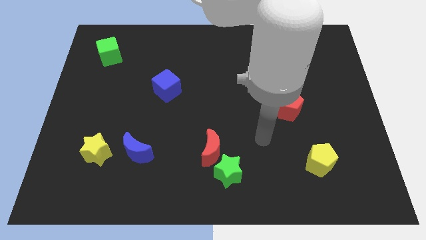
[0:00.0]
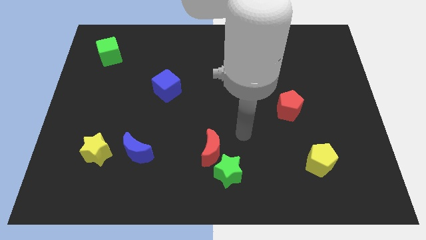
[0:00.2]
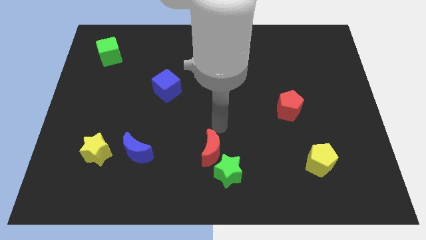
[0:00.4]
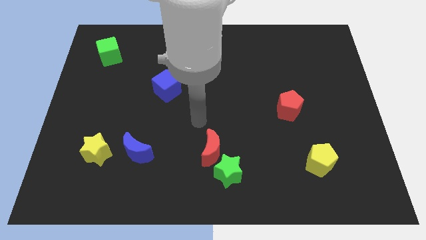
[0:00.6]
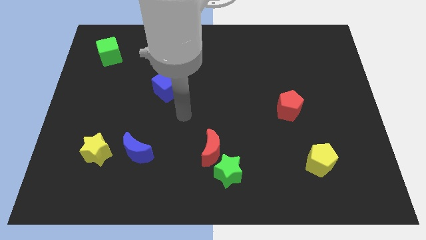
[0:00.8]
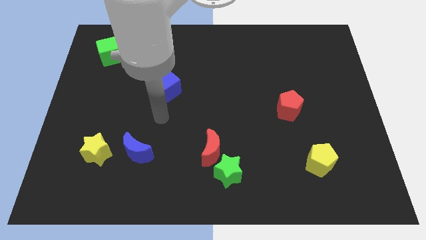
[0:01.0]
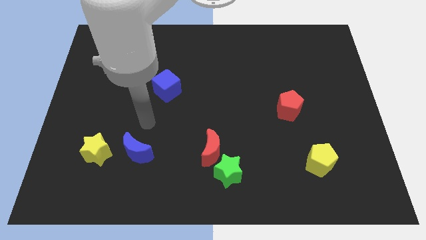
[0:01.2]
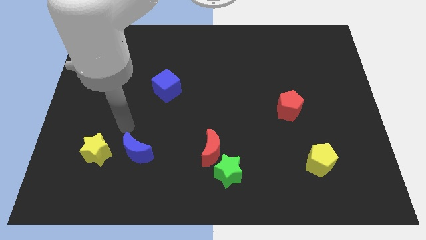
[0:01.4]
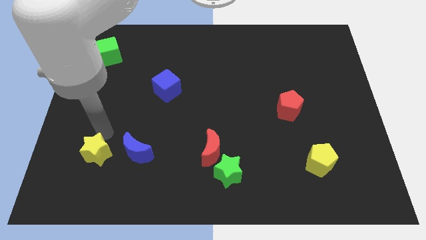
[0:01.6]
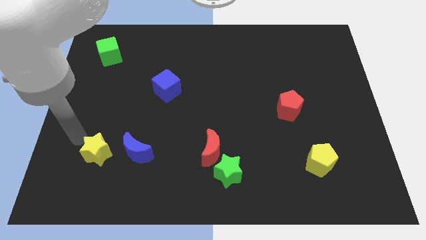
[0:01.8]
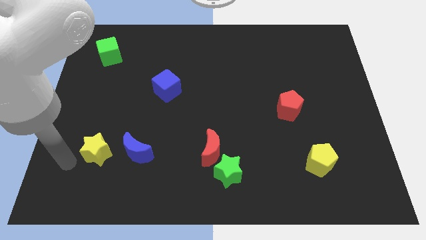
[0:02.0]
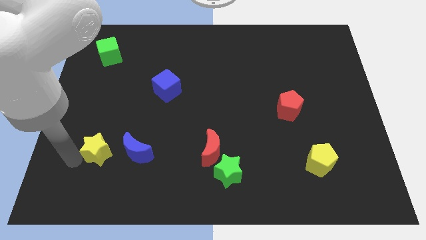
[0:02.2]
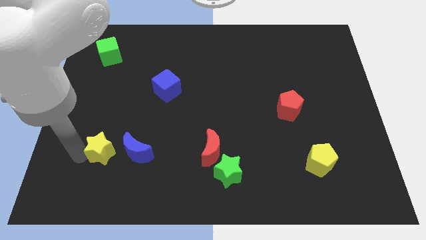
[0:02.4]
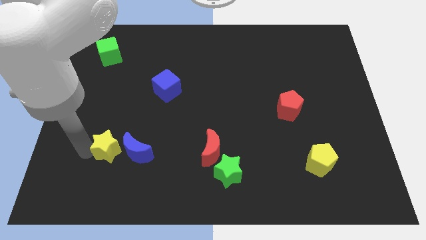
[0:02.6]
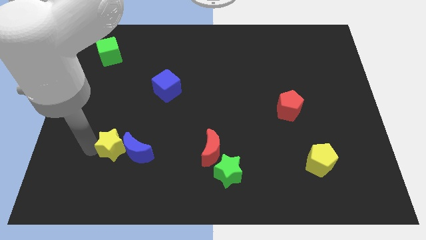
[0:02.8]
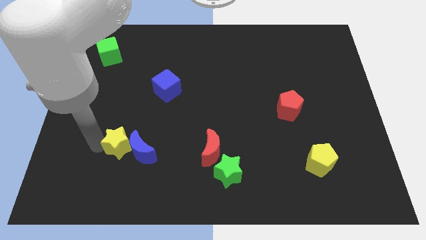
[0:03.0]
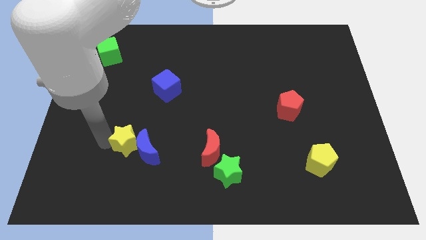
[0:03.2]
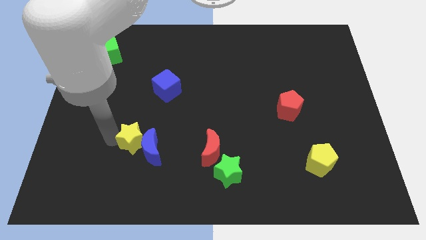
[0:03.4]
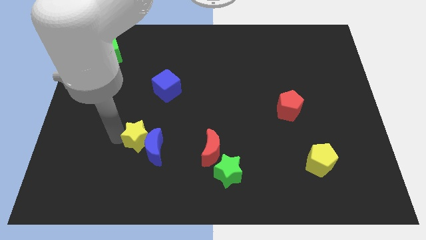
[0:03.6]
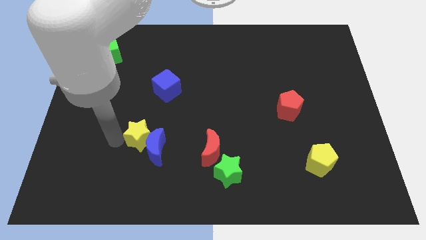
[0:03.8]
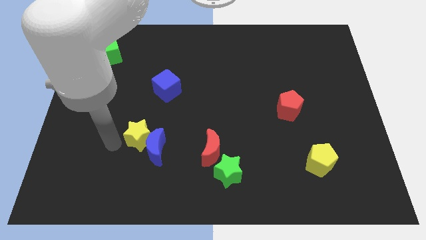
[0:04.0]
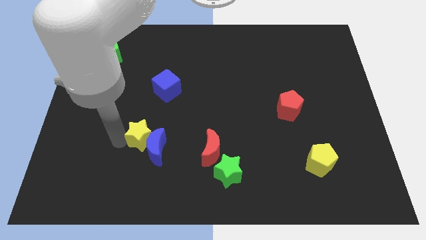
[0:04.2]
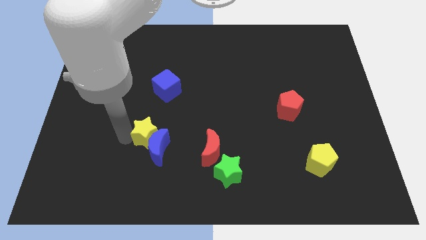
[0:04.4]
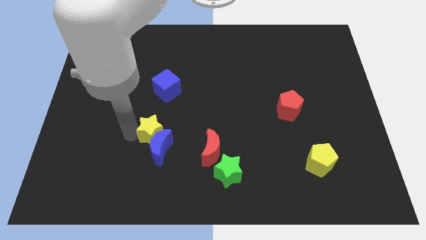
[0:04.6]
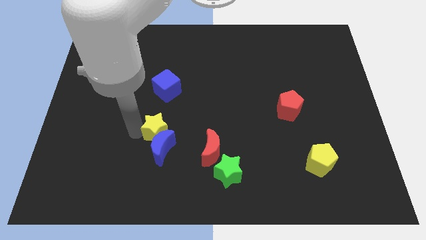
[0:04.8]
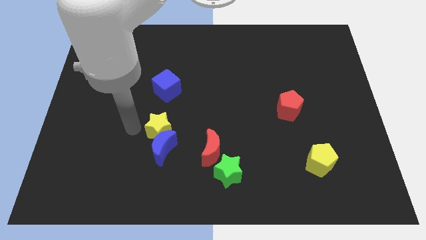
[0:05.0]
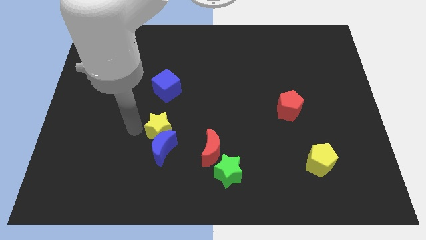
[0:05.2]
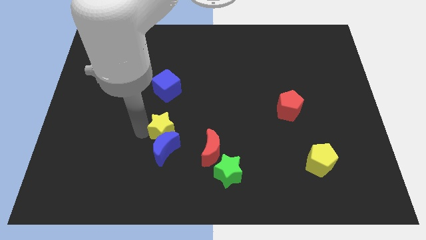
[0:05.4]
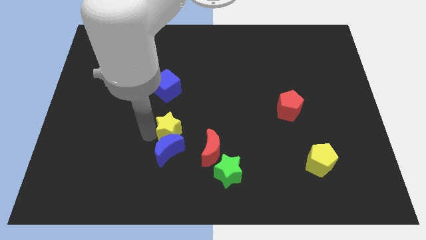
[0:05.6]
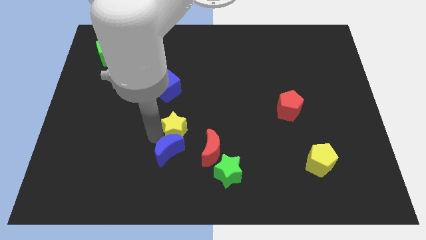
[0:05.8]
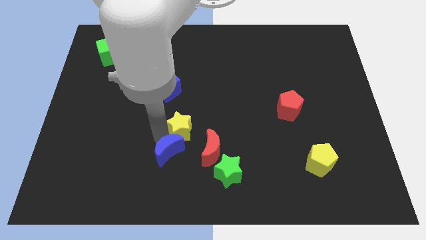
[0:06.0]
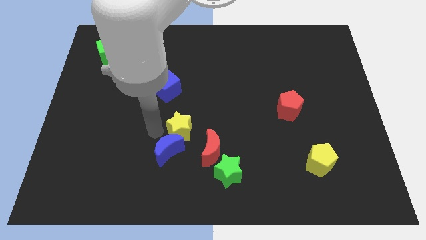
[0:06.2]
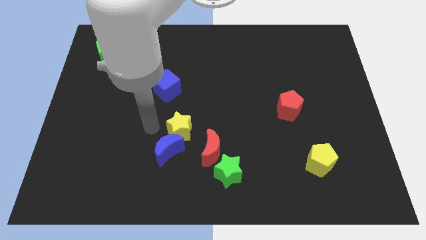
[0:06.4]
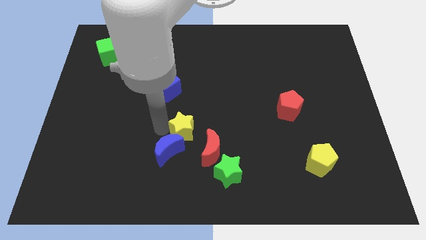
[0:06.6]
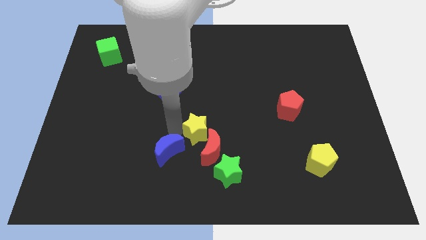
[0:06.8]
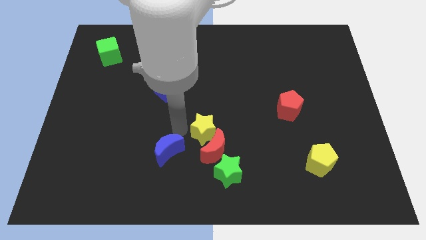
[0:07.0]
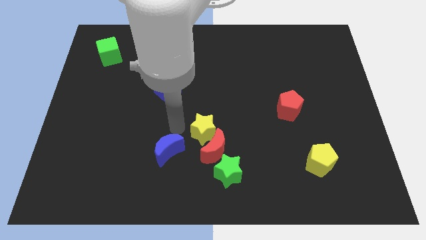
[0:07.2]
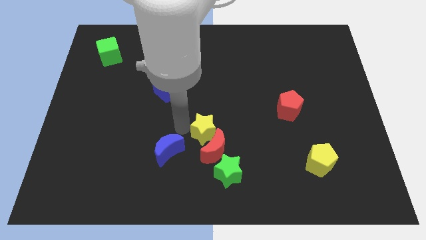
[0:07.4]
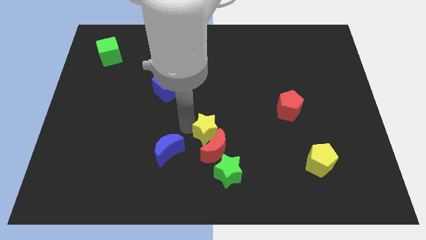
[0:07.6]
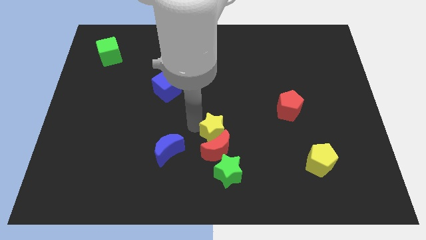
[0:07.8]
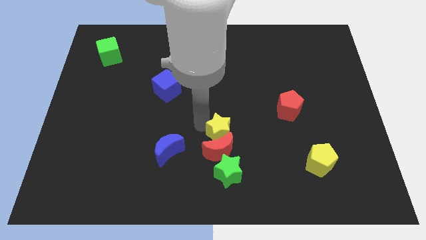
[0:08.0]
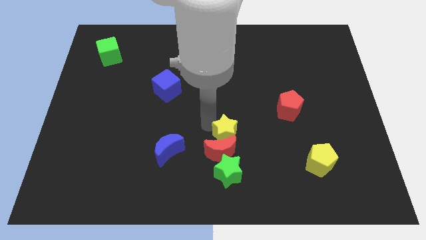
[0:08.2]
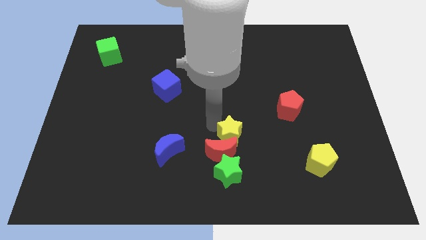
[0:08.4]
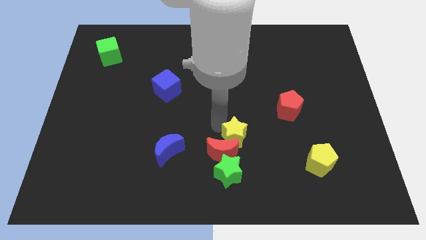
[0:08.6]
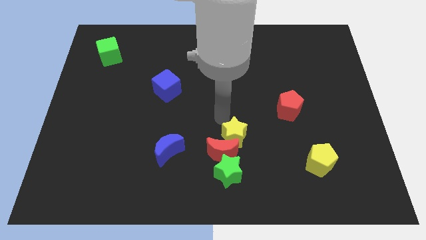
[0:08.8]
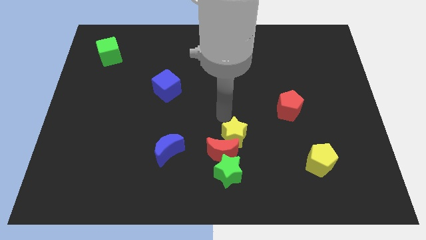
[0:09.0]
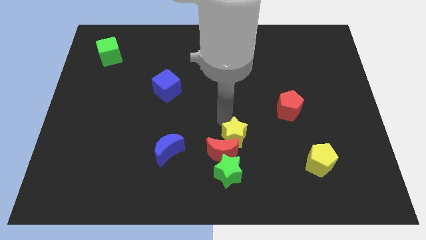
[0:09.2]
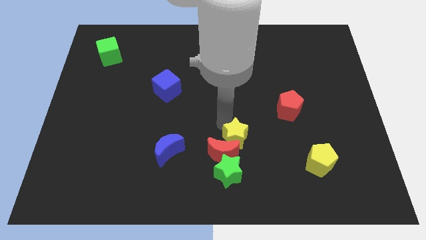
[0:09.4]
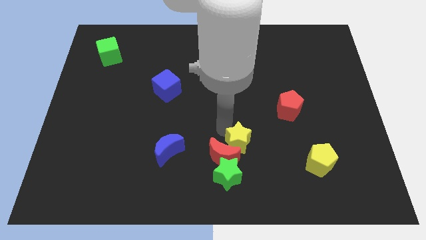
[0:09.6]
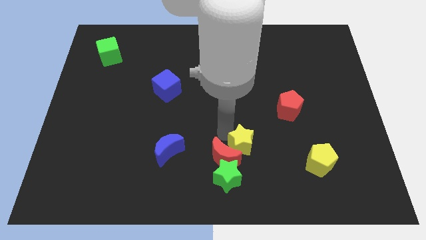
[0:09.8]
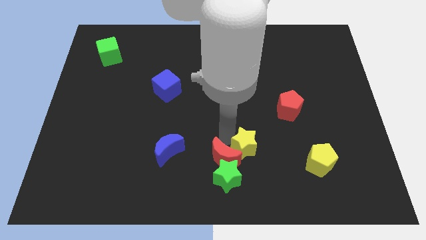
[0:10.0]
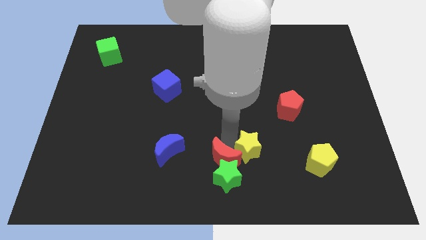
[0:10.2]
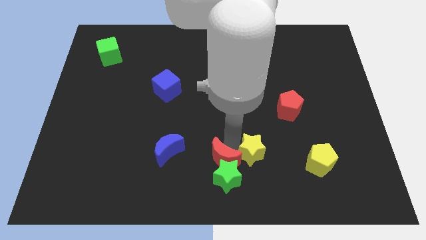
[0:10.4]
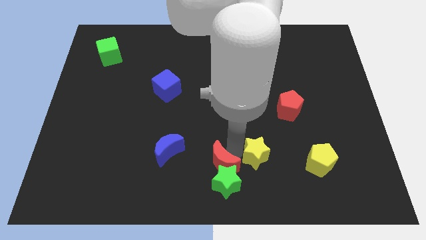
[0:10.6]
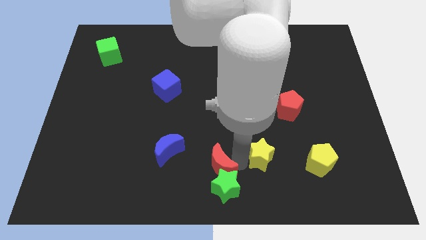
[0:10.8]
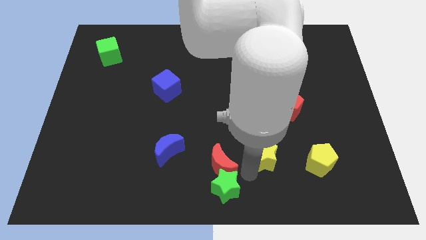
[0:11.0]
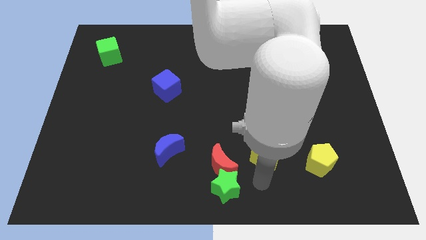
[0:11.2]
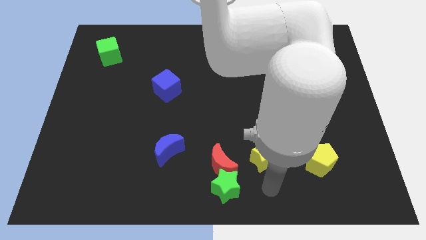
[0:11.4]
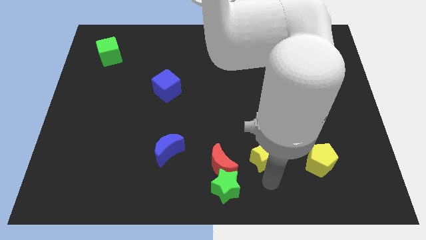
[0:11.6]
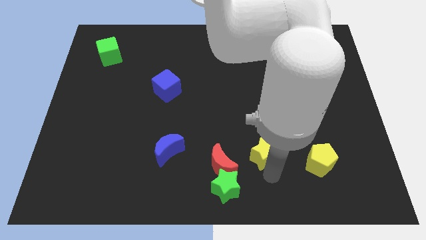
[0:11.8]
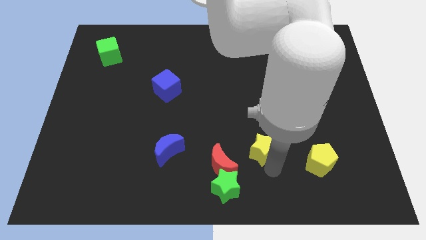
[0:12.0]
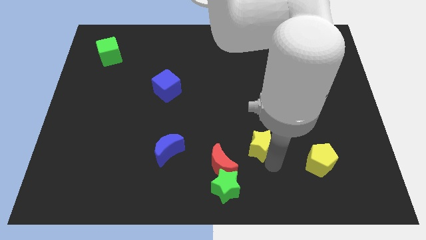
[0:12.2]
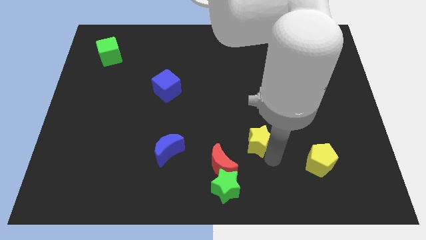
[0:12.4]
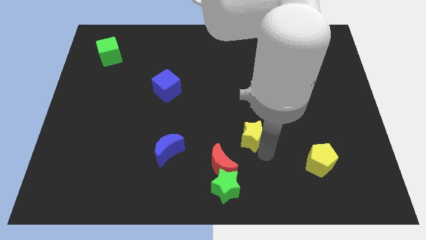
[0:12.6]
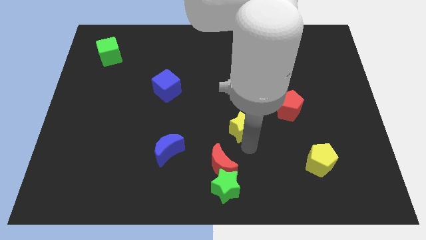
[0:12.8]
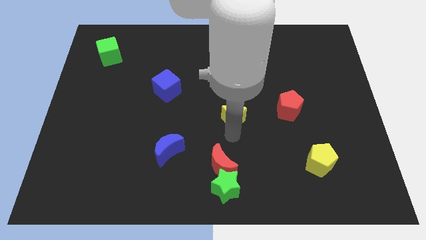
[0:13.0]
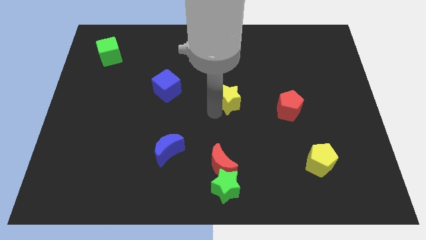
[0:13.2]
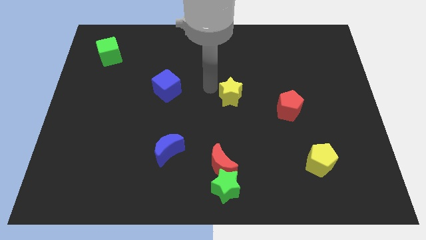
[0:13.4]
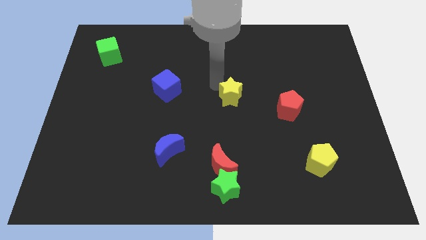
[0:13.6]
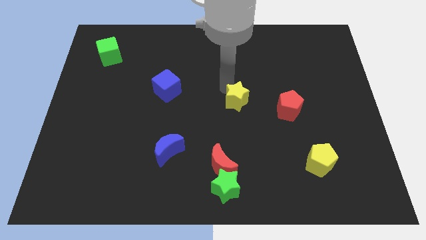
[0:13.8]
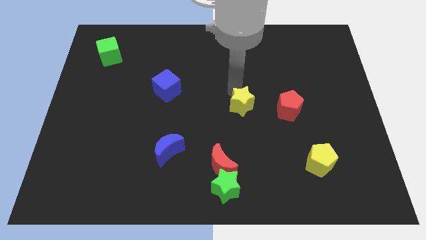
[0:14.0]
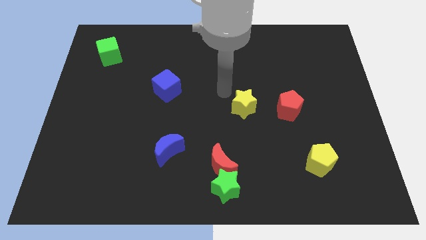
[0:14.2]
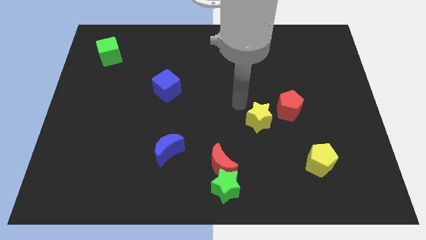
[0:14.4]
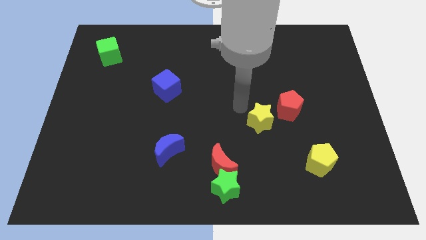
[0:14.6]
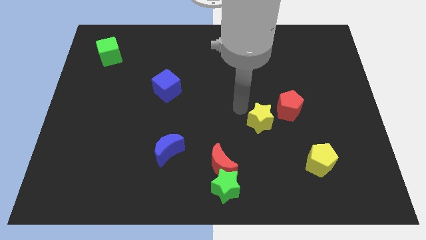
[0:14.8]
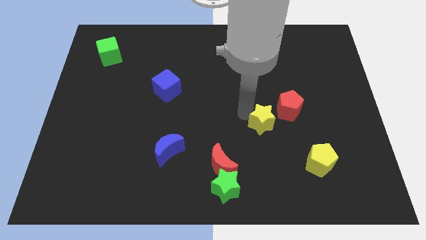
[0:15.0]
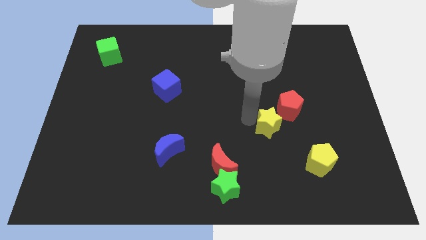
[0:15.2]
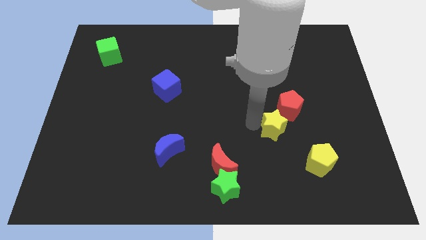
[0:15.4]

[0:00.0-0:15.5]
push the yellow star to the top left side of the yellow pentagon
